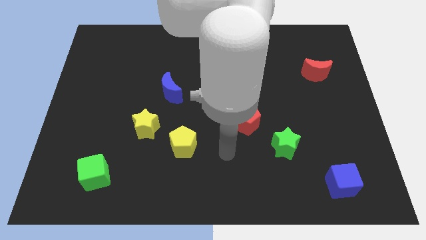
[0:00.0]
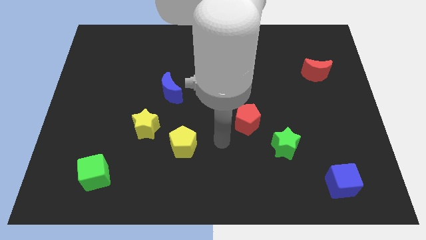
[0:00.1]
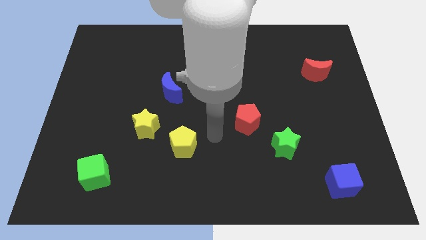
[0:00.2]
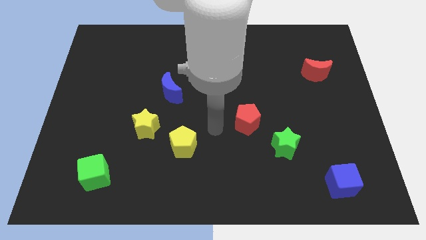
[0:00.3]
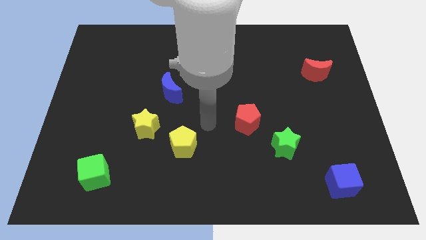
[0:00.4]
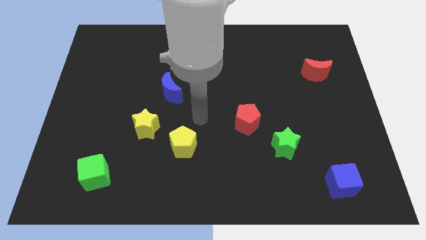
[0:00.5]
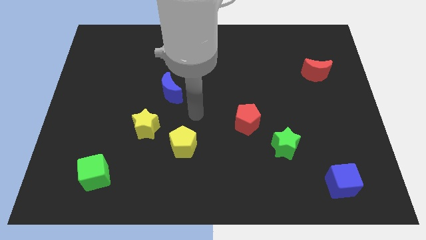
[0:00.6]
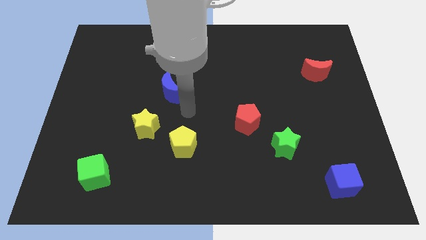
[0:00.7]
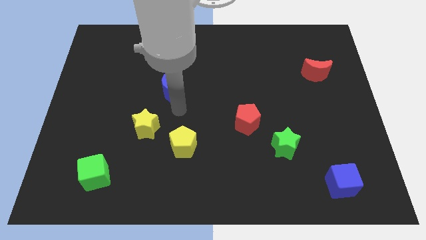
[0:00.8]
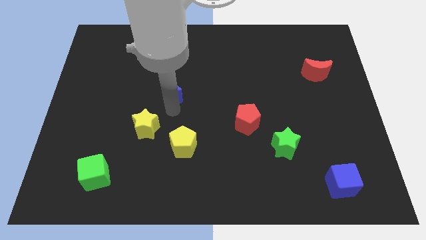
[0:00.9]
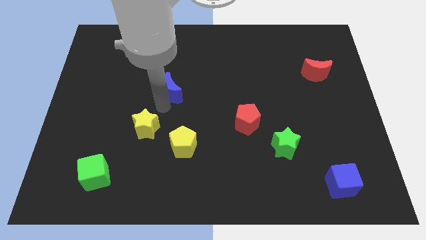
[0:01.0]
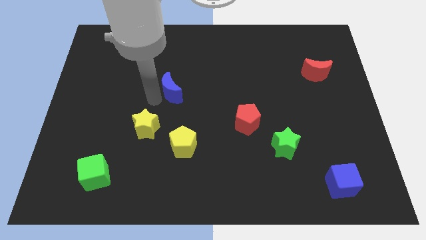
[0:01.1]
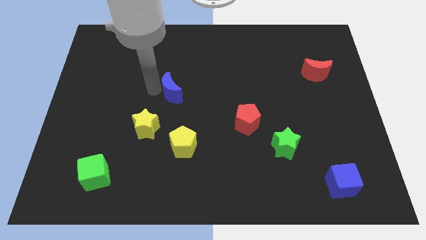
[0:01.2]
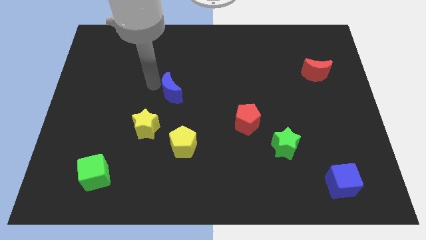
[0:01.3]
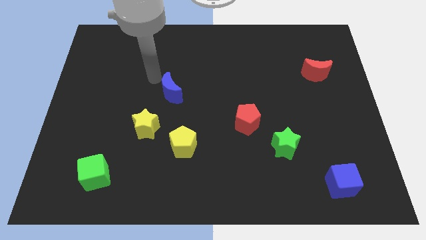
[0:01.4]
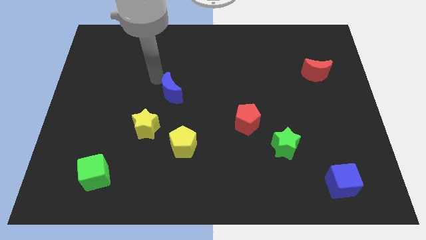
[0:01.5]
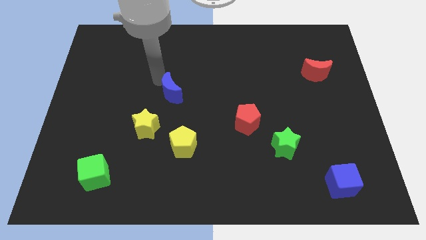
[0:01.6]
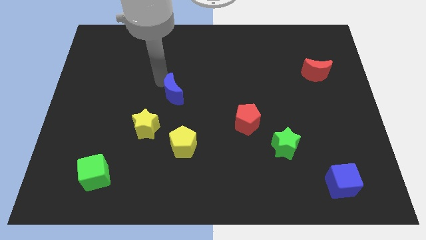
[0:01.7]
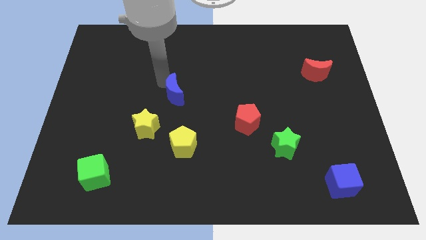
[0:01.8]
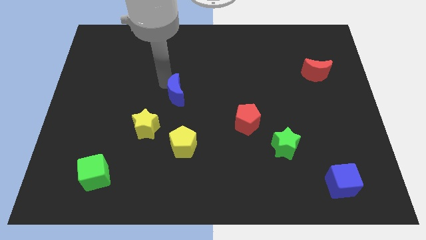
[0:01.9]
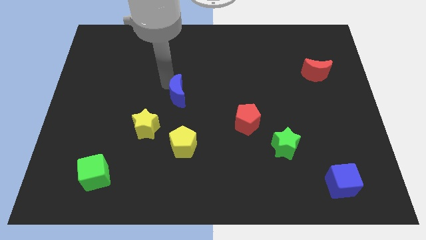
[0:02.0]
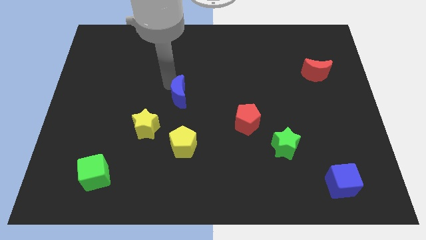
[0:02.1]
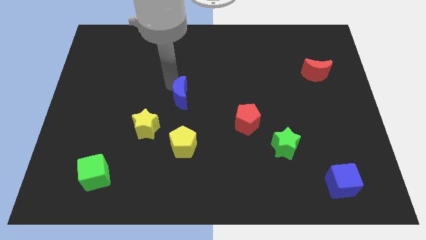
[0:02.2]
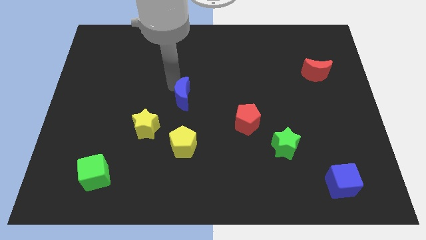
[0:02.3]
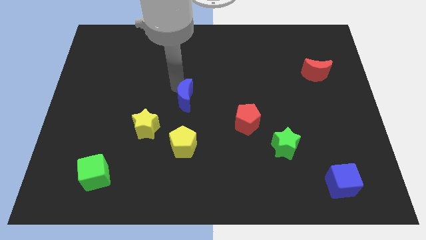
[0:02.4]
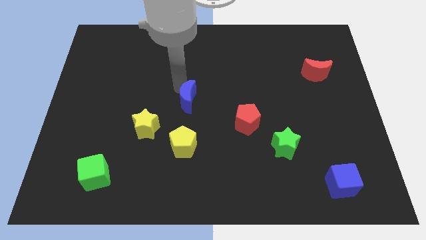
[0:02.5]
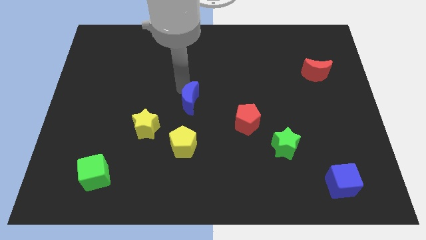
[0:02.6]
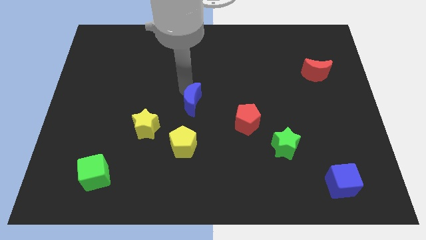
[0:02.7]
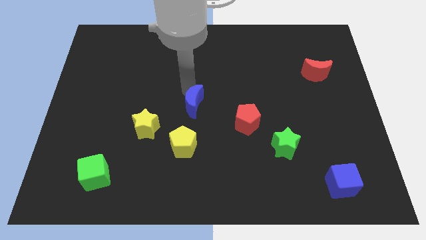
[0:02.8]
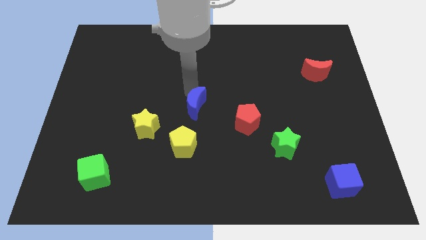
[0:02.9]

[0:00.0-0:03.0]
push the blue moon slightly downwards and right

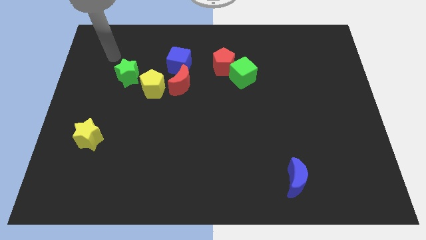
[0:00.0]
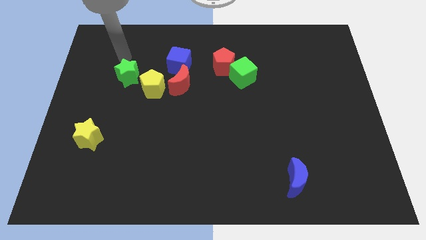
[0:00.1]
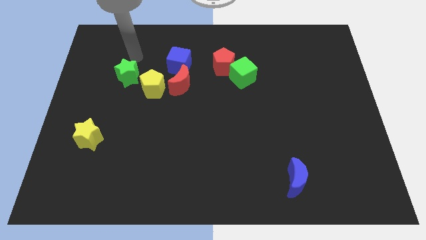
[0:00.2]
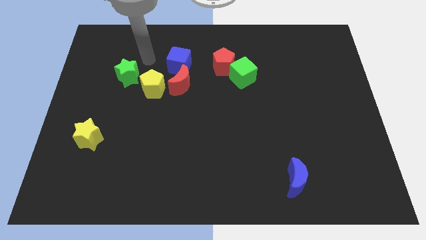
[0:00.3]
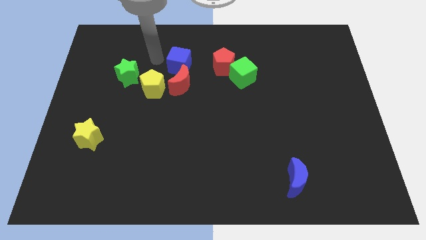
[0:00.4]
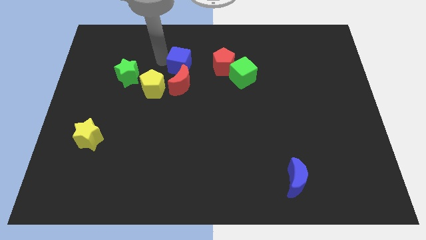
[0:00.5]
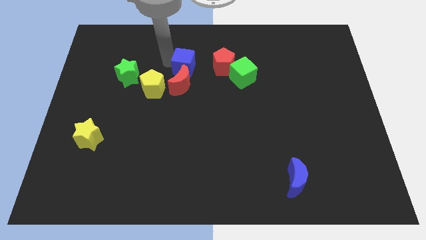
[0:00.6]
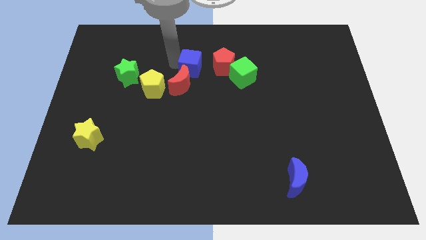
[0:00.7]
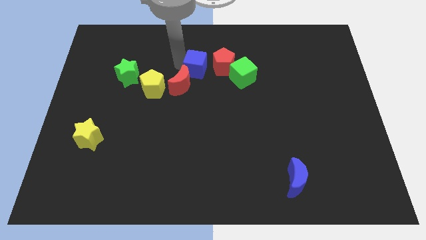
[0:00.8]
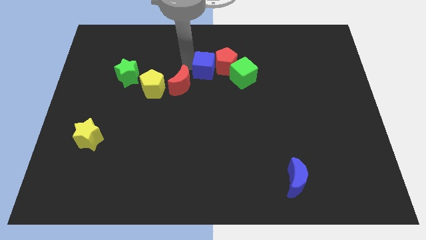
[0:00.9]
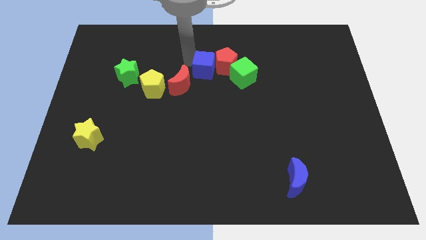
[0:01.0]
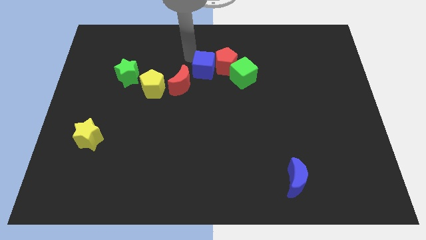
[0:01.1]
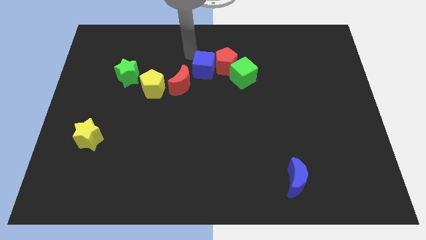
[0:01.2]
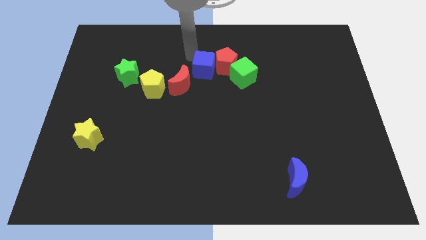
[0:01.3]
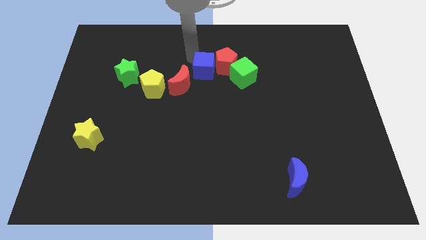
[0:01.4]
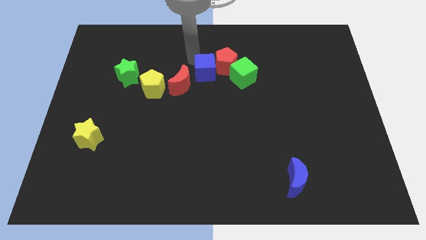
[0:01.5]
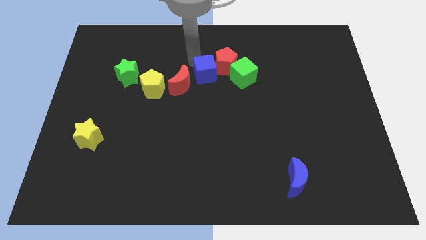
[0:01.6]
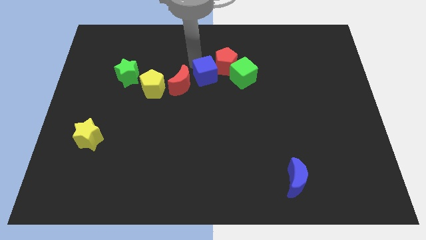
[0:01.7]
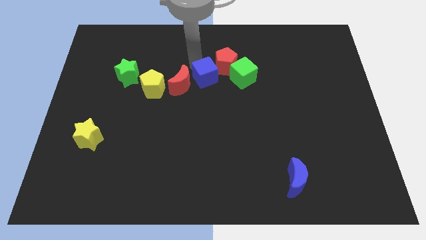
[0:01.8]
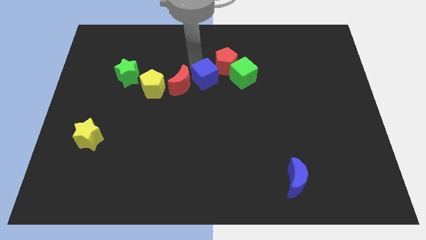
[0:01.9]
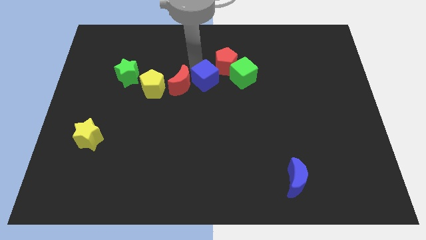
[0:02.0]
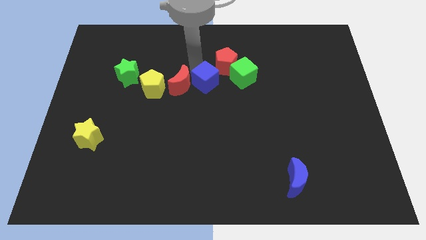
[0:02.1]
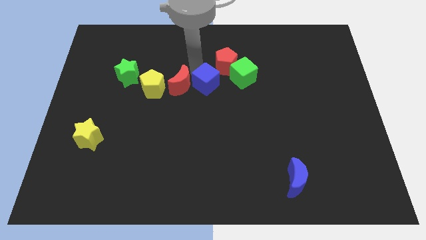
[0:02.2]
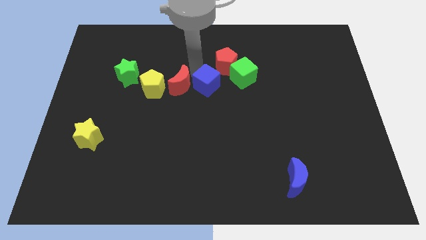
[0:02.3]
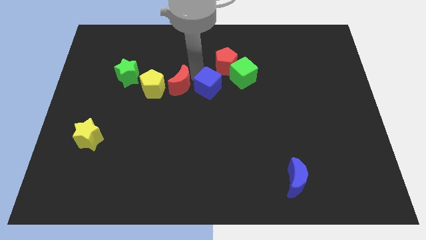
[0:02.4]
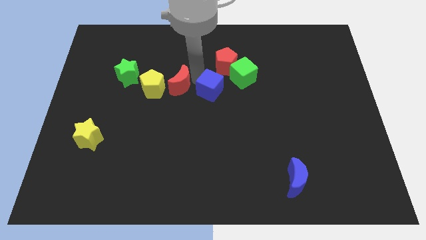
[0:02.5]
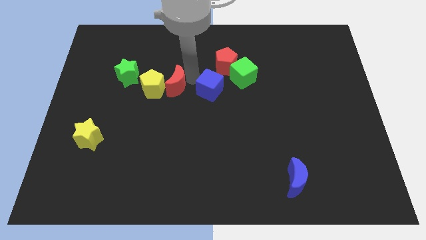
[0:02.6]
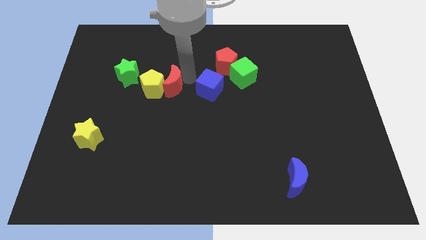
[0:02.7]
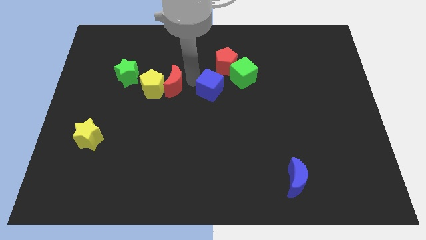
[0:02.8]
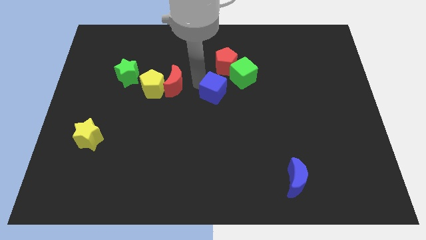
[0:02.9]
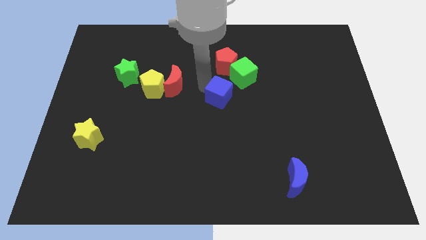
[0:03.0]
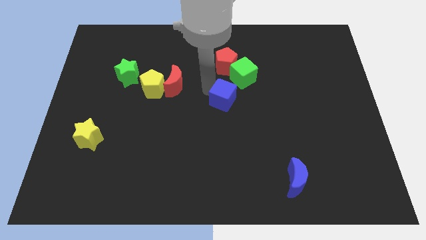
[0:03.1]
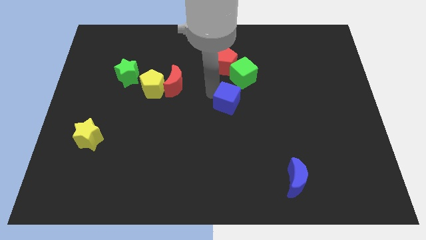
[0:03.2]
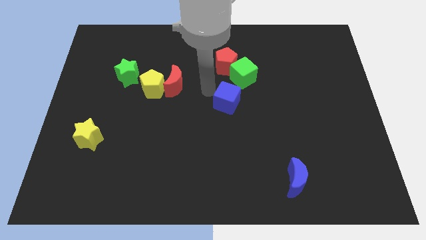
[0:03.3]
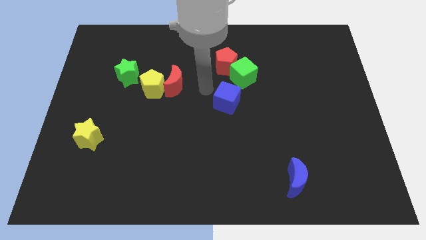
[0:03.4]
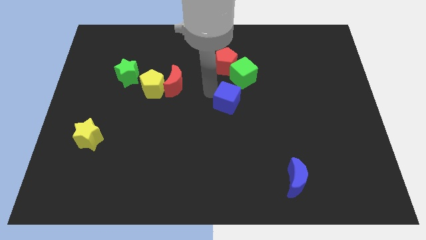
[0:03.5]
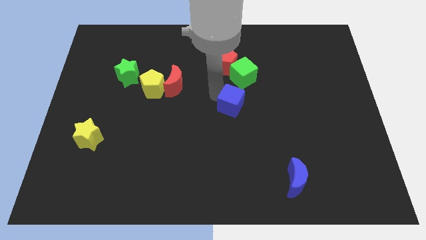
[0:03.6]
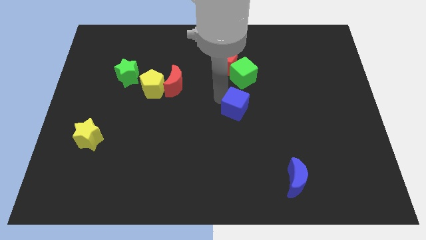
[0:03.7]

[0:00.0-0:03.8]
slide the blue cube down and to the right diagonally

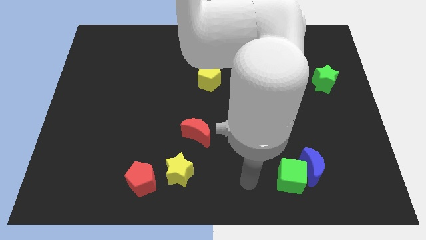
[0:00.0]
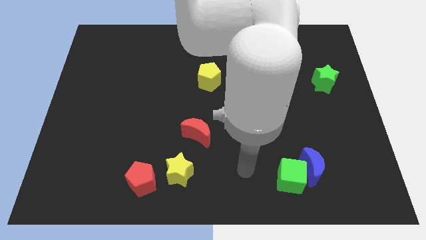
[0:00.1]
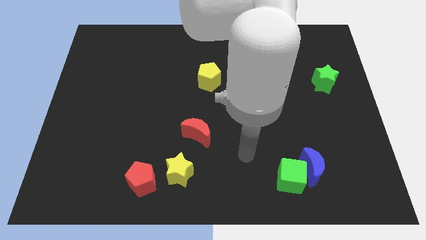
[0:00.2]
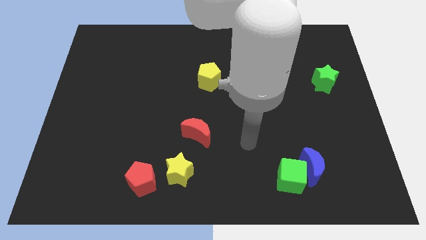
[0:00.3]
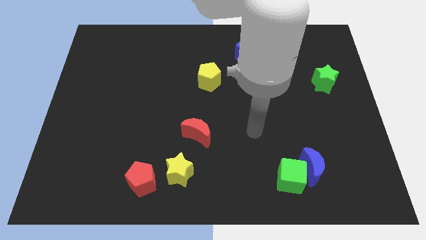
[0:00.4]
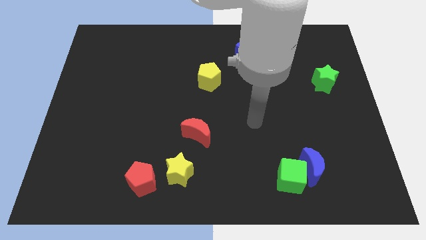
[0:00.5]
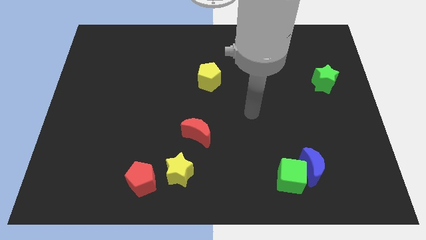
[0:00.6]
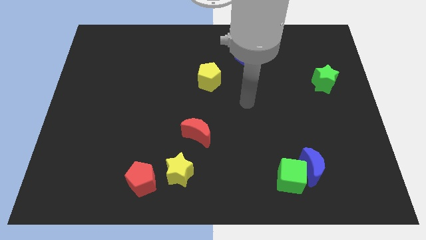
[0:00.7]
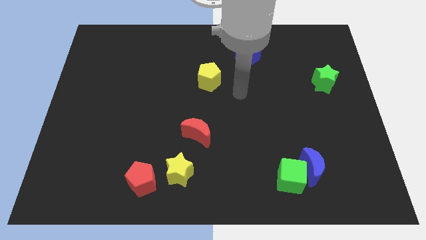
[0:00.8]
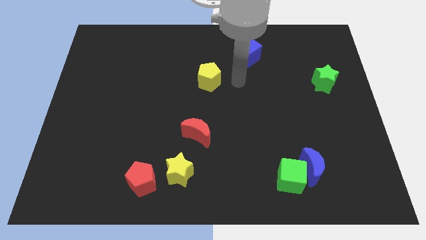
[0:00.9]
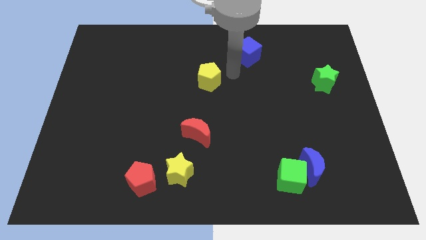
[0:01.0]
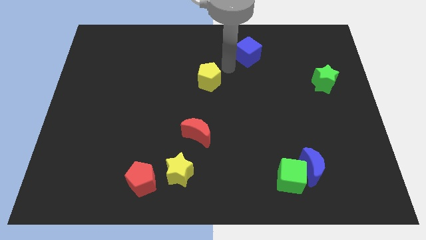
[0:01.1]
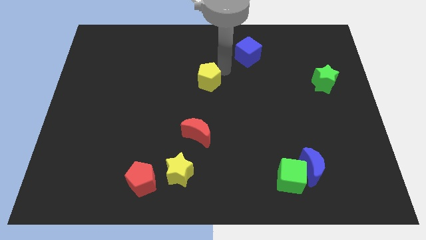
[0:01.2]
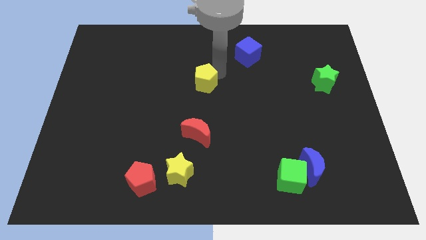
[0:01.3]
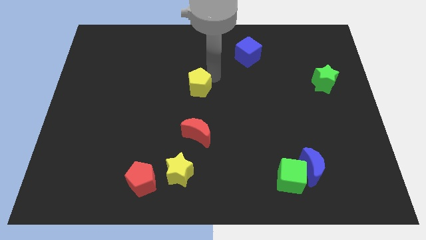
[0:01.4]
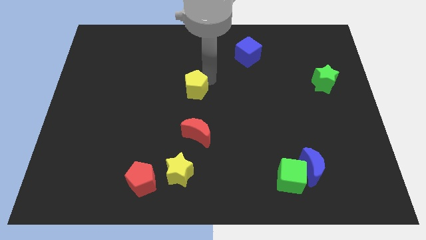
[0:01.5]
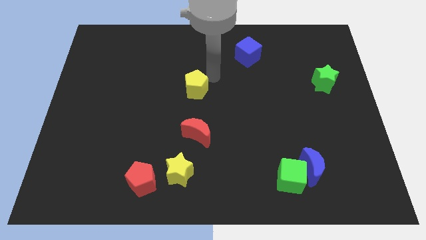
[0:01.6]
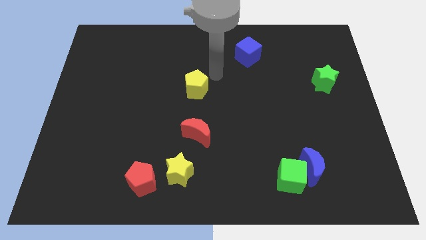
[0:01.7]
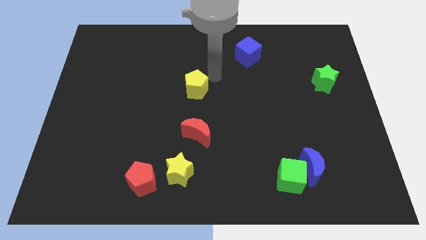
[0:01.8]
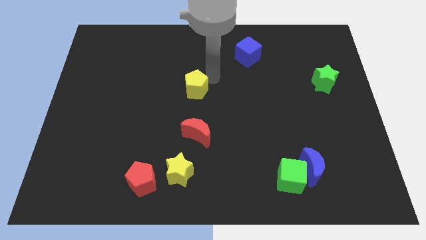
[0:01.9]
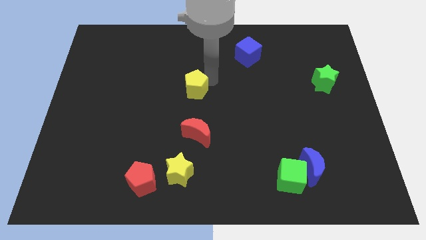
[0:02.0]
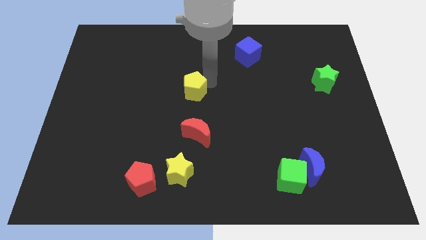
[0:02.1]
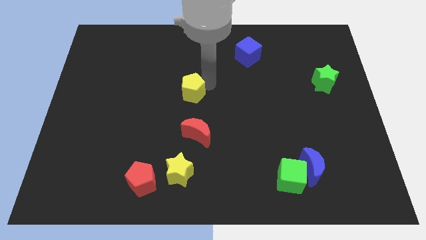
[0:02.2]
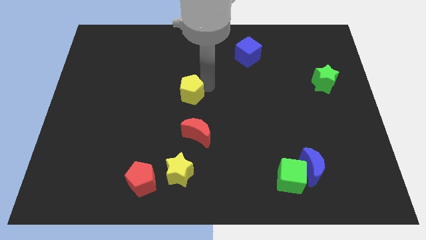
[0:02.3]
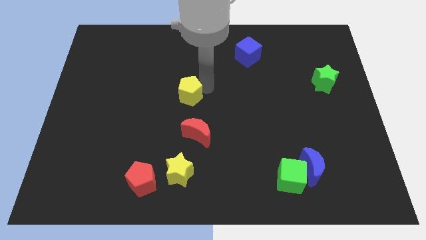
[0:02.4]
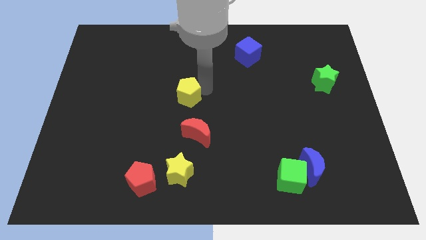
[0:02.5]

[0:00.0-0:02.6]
move the yellow pentagon a bit downwards and then left
